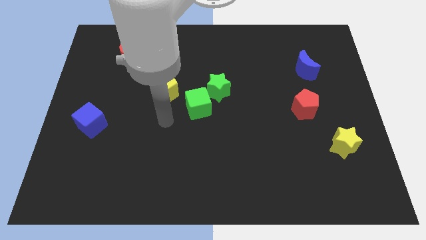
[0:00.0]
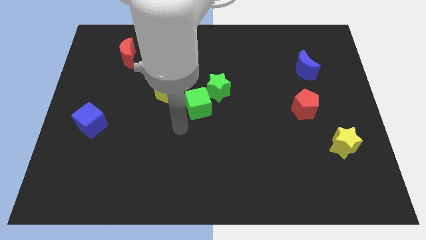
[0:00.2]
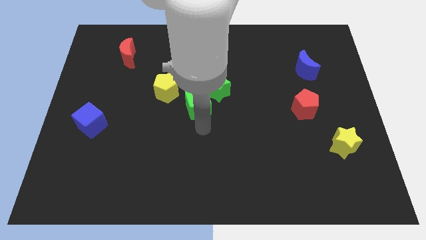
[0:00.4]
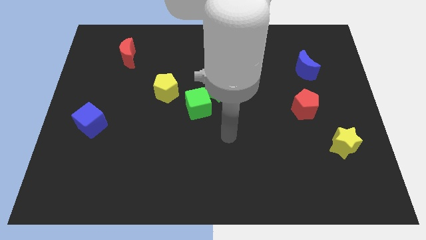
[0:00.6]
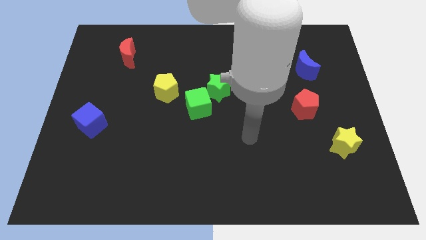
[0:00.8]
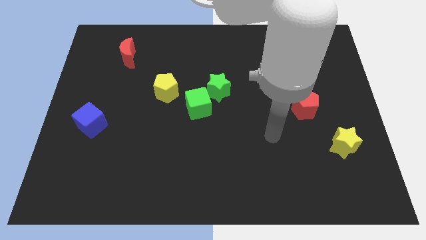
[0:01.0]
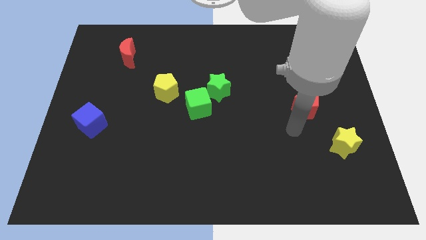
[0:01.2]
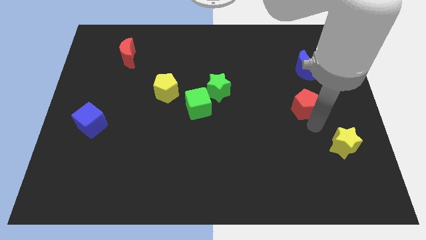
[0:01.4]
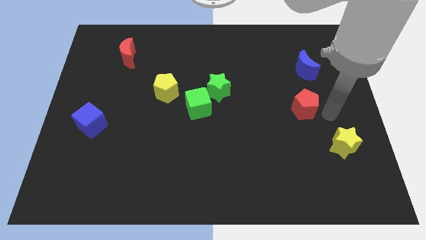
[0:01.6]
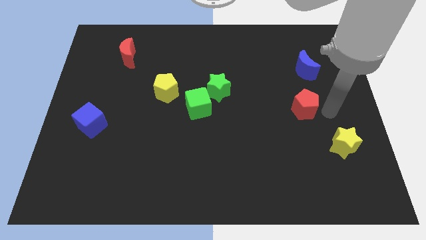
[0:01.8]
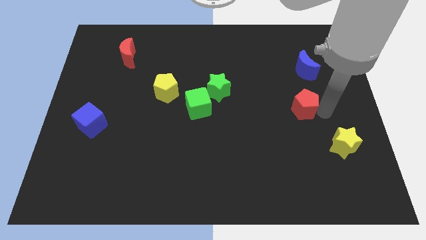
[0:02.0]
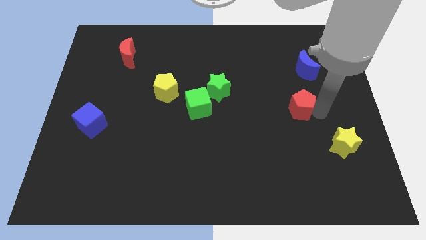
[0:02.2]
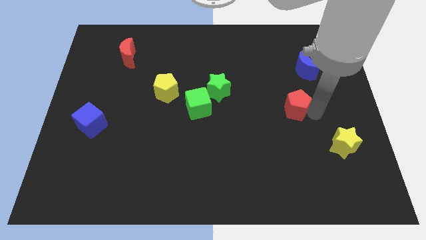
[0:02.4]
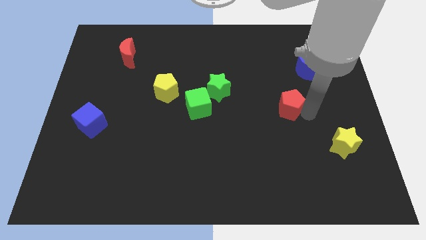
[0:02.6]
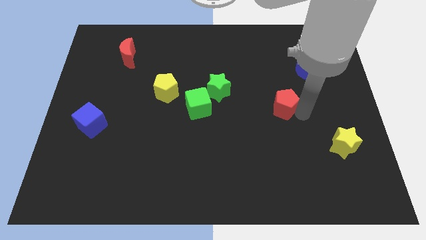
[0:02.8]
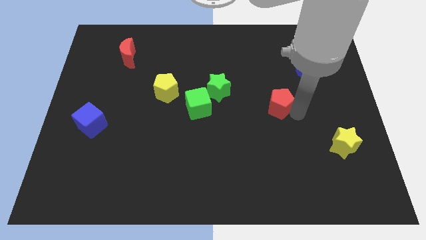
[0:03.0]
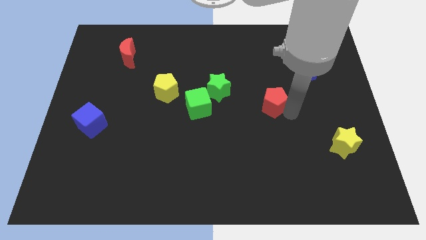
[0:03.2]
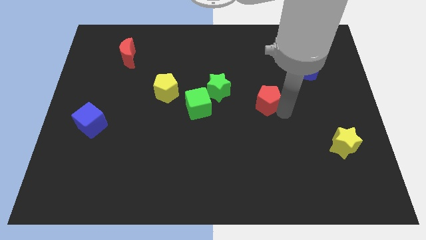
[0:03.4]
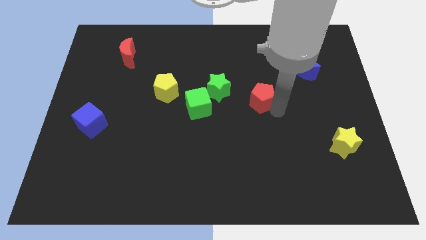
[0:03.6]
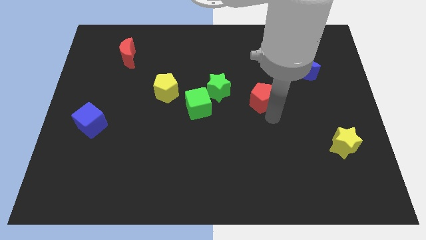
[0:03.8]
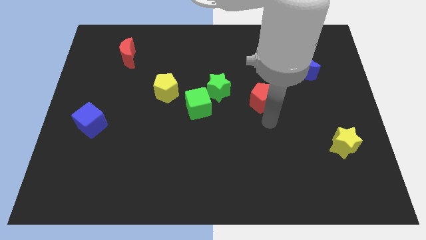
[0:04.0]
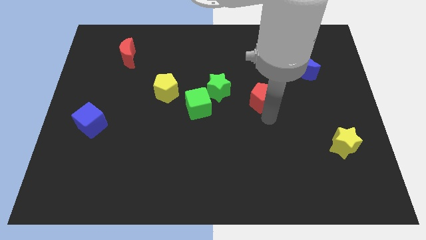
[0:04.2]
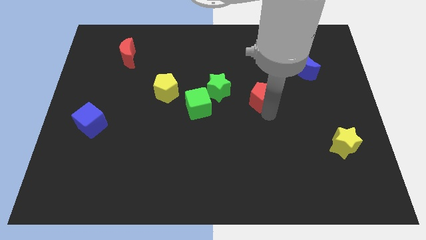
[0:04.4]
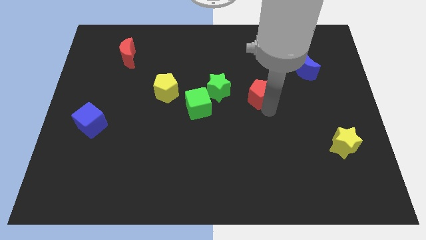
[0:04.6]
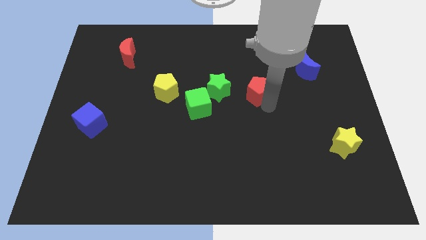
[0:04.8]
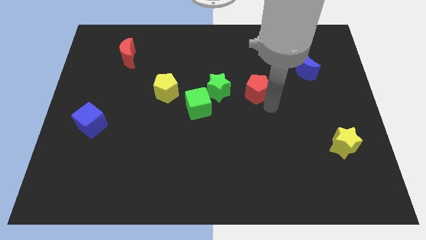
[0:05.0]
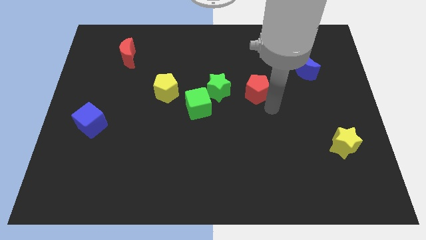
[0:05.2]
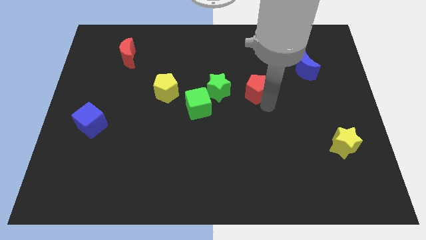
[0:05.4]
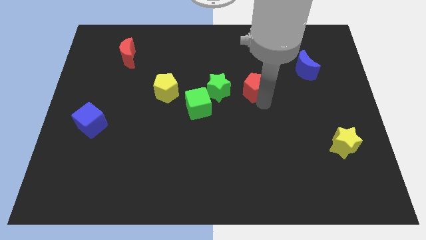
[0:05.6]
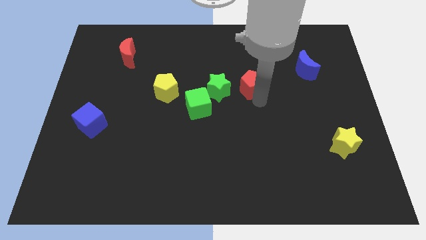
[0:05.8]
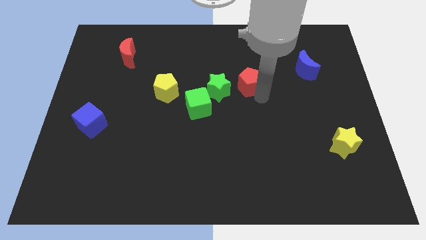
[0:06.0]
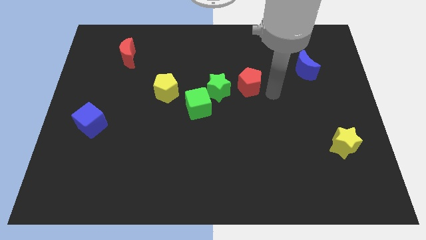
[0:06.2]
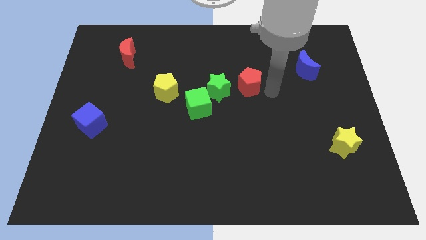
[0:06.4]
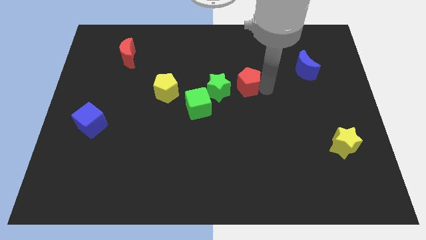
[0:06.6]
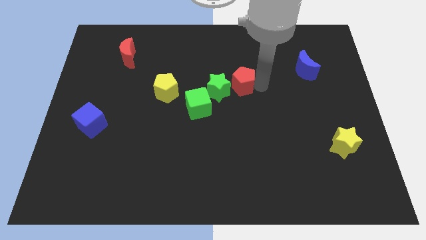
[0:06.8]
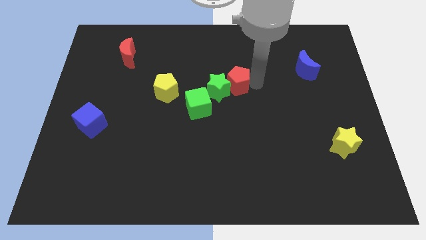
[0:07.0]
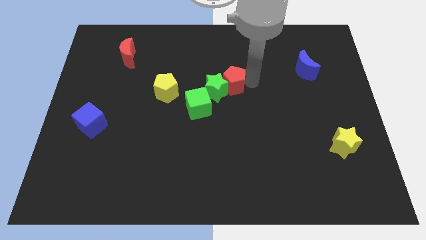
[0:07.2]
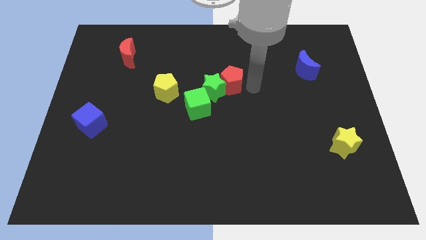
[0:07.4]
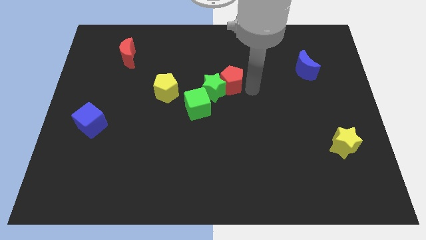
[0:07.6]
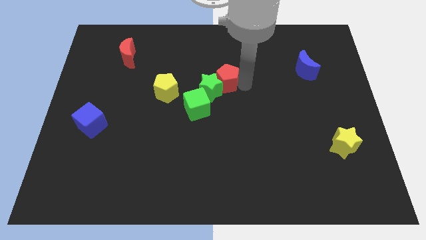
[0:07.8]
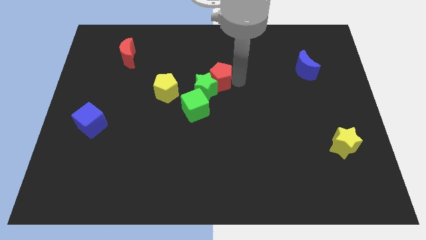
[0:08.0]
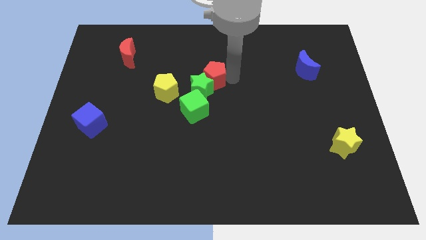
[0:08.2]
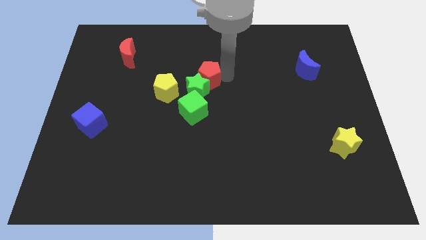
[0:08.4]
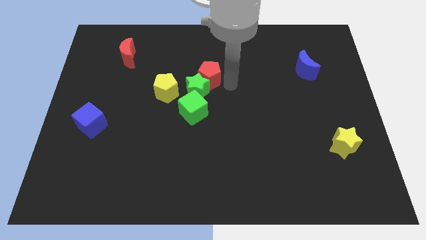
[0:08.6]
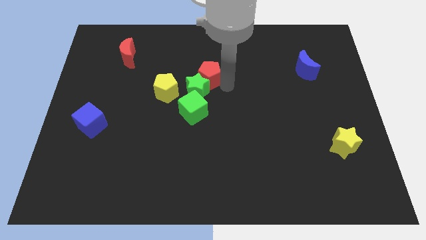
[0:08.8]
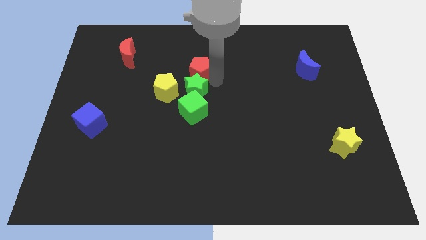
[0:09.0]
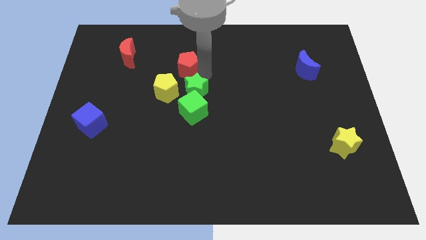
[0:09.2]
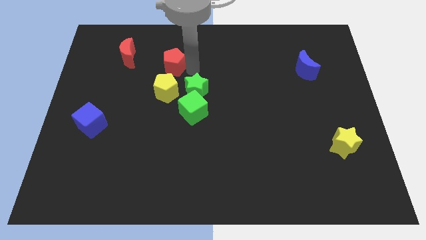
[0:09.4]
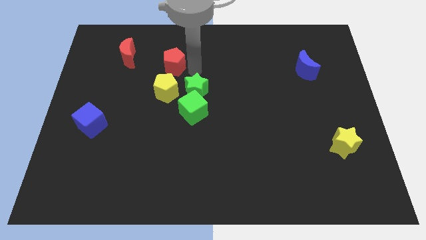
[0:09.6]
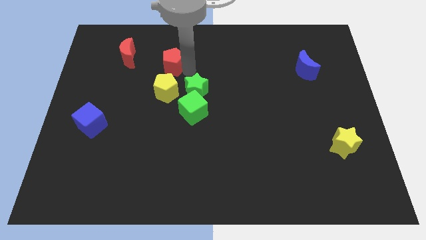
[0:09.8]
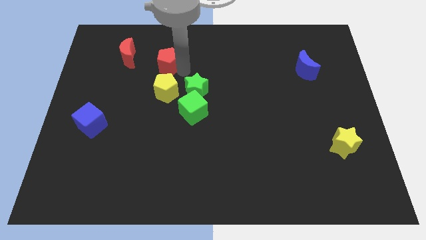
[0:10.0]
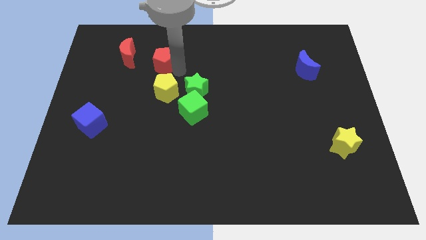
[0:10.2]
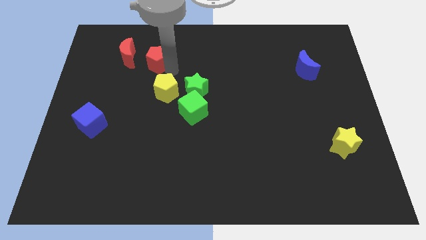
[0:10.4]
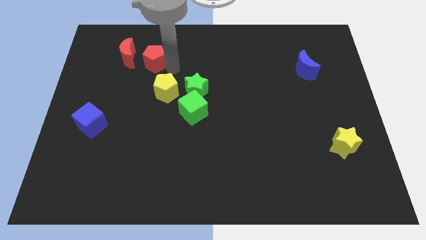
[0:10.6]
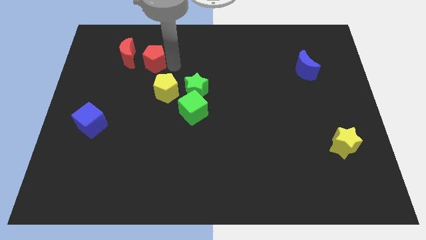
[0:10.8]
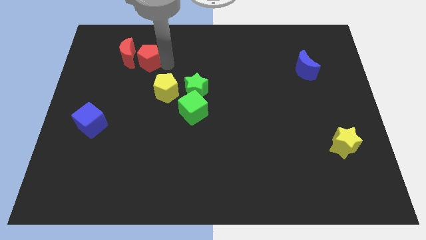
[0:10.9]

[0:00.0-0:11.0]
put the red pentagon close to the red moon

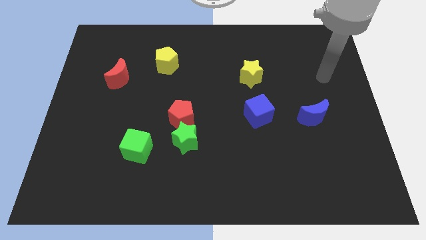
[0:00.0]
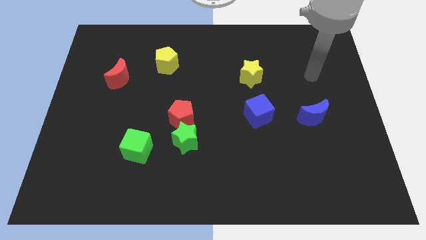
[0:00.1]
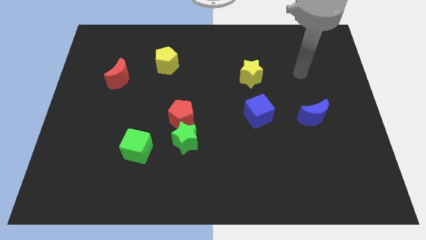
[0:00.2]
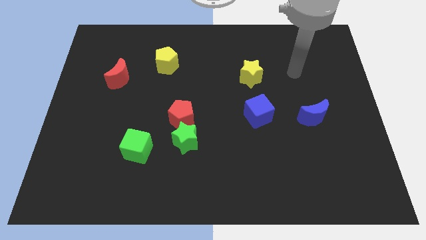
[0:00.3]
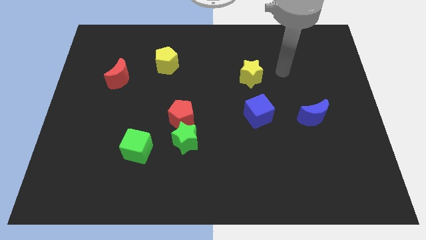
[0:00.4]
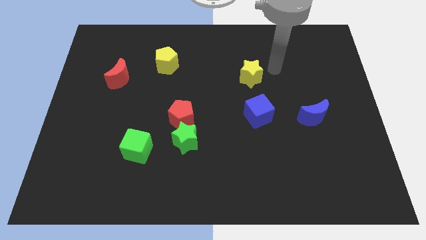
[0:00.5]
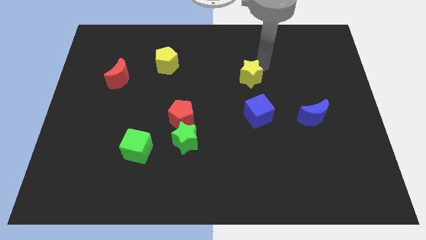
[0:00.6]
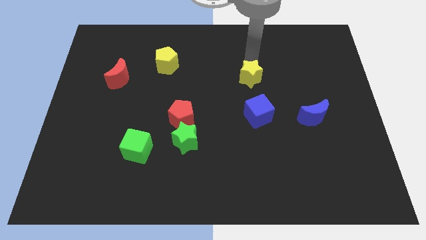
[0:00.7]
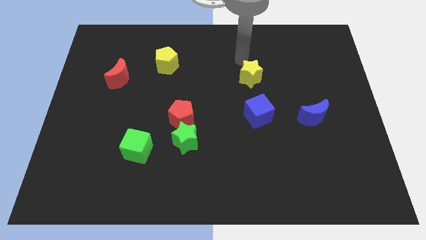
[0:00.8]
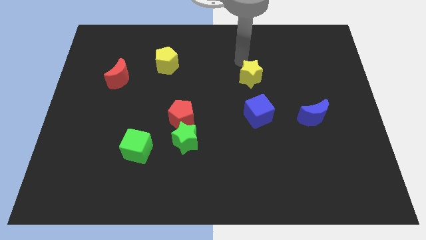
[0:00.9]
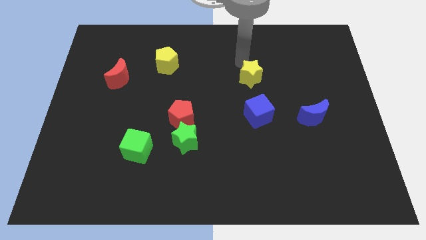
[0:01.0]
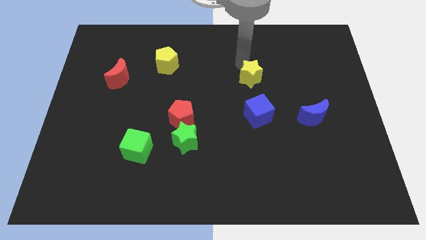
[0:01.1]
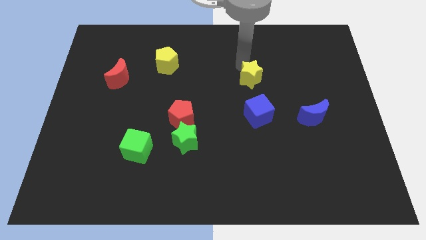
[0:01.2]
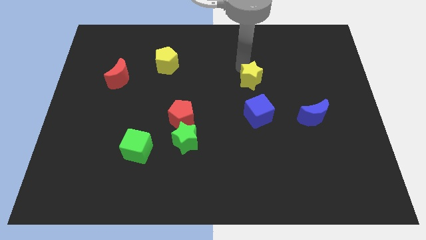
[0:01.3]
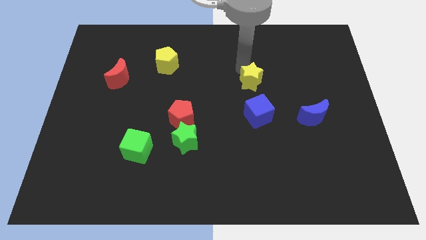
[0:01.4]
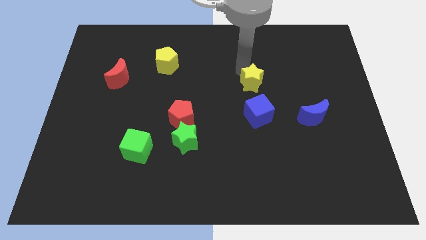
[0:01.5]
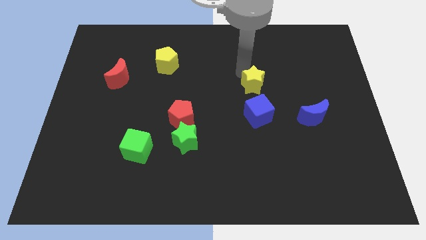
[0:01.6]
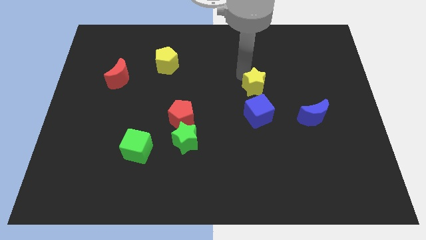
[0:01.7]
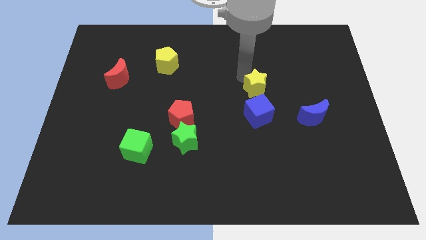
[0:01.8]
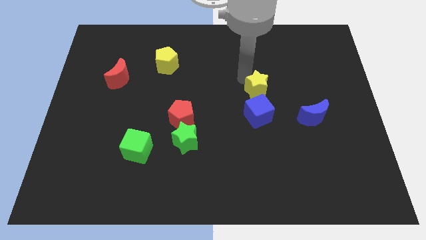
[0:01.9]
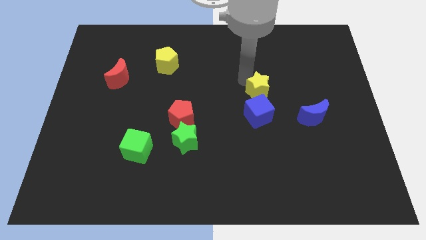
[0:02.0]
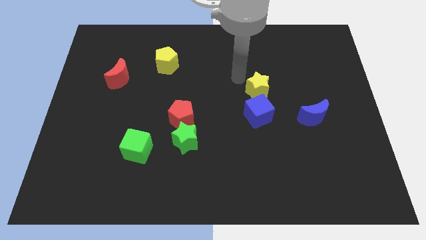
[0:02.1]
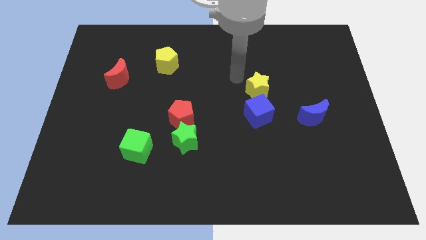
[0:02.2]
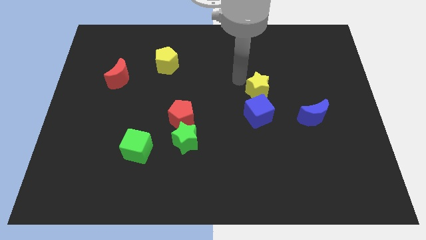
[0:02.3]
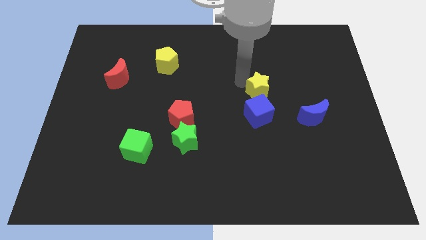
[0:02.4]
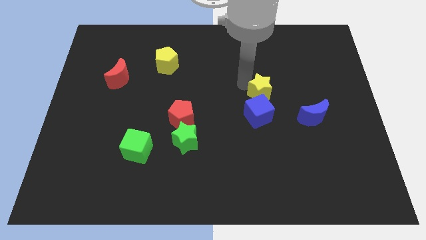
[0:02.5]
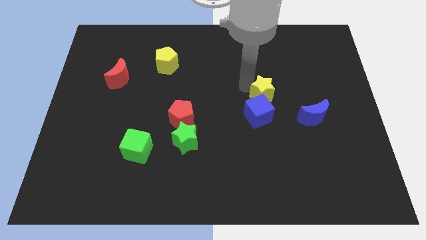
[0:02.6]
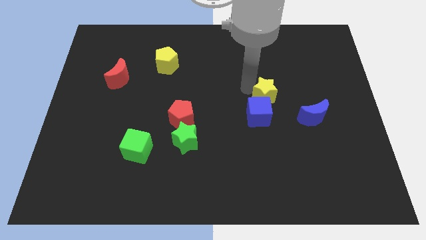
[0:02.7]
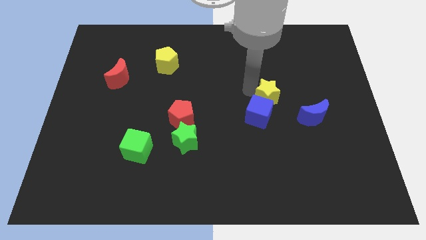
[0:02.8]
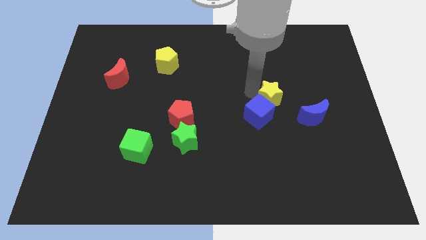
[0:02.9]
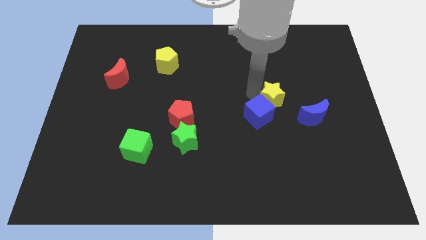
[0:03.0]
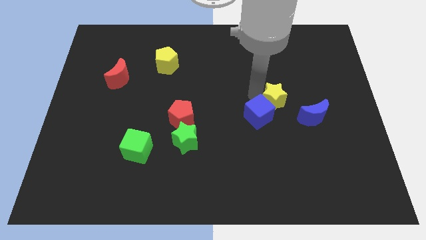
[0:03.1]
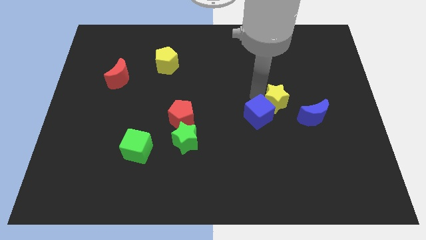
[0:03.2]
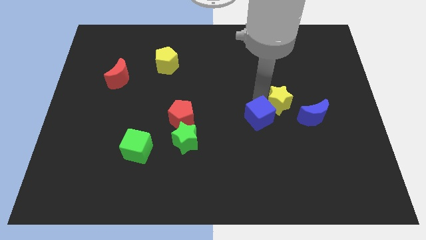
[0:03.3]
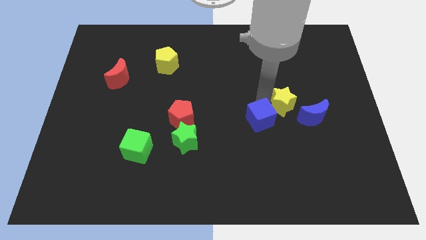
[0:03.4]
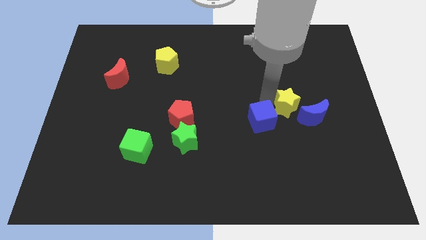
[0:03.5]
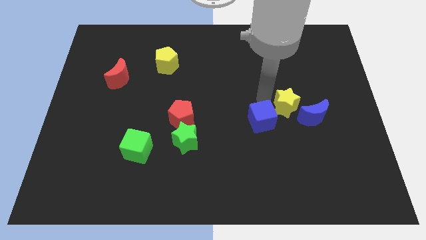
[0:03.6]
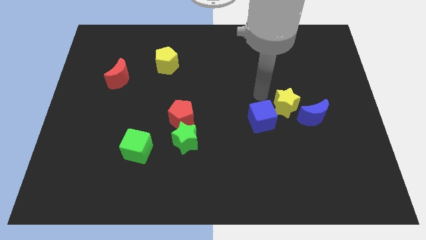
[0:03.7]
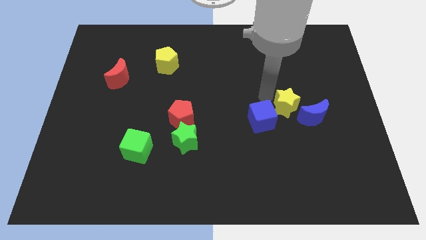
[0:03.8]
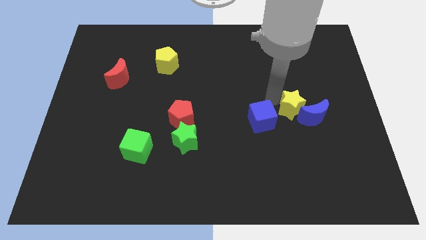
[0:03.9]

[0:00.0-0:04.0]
move the yellow star close to the blue moon
